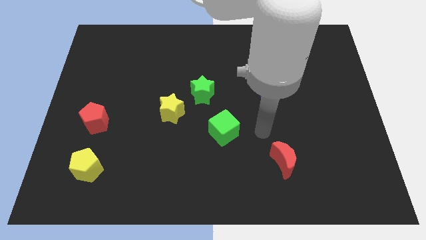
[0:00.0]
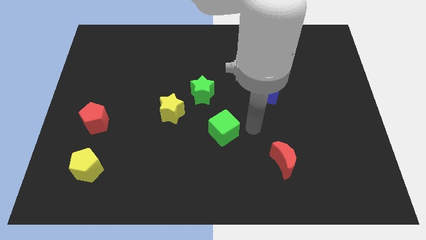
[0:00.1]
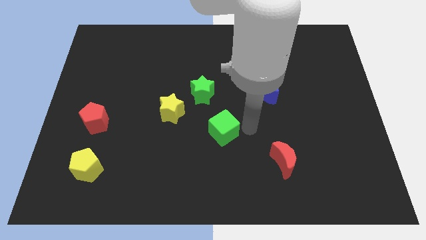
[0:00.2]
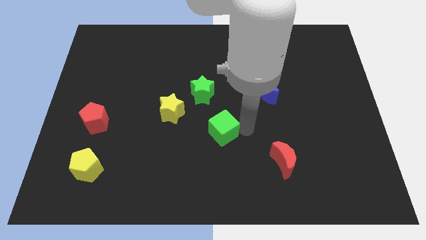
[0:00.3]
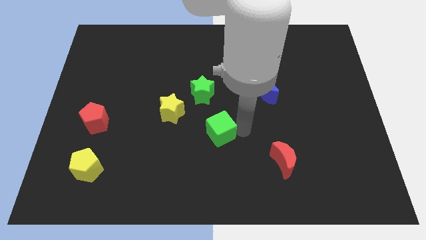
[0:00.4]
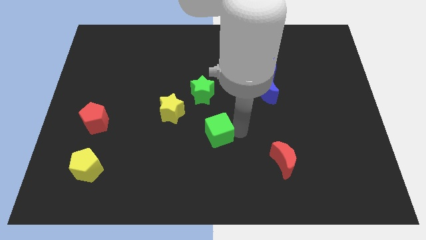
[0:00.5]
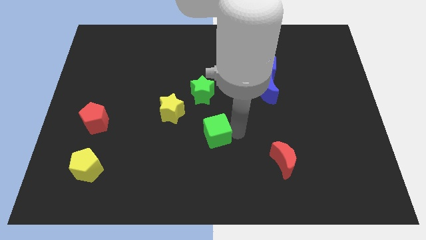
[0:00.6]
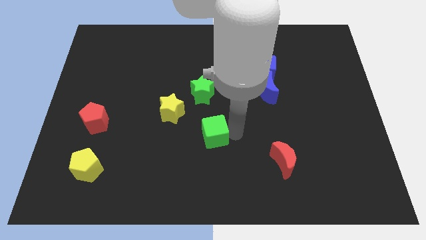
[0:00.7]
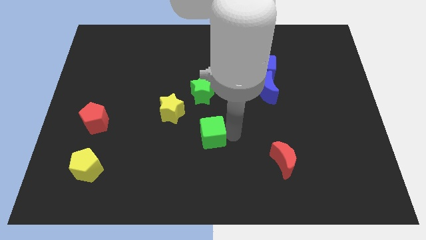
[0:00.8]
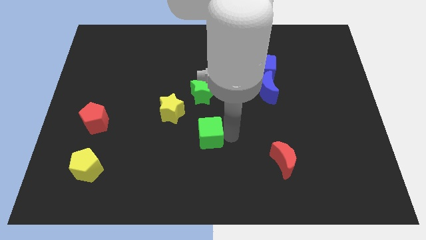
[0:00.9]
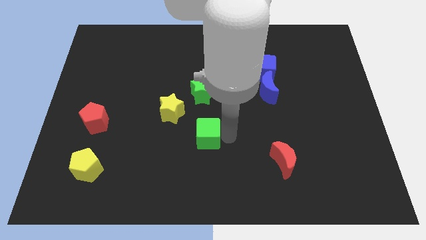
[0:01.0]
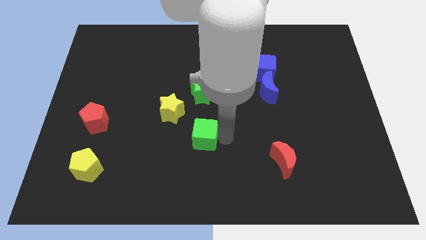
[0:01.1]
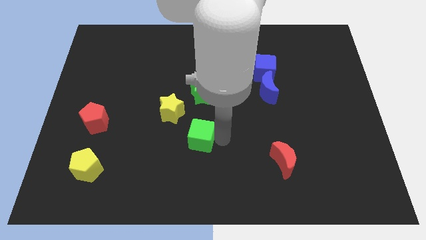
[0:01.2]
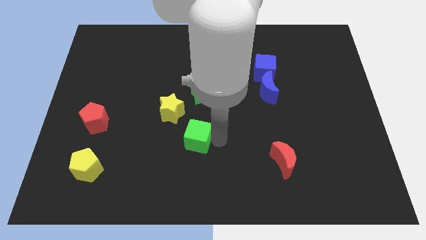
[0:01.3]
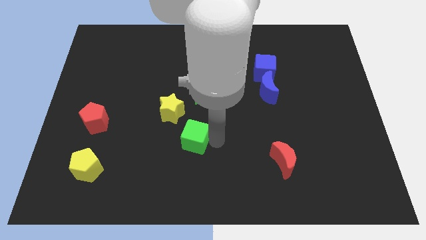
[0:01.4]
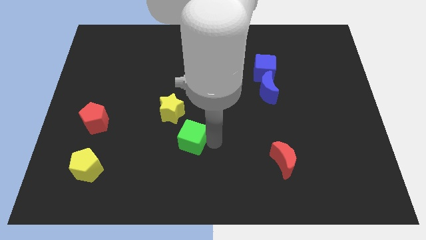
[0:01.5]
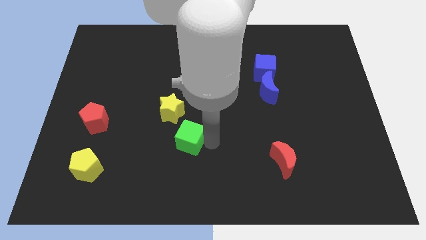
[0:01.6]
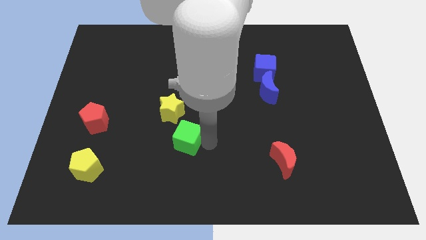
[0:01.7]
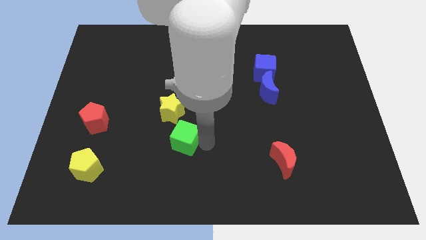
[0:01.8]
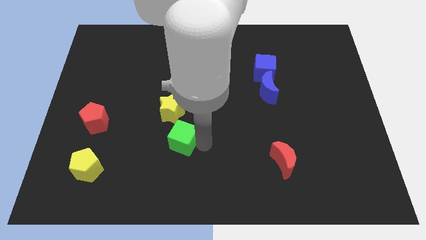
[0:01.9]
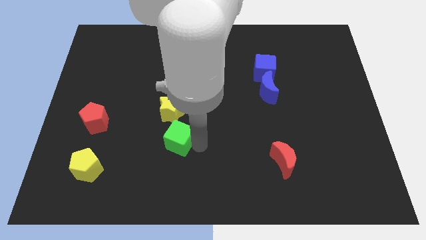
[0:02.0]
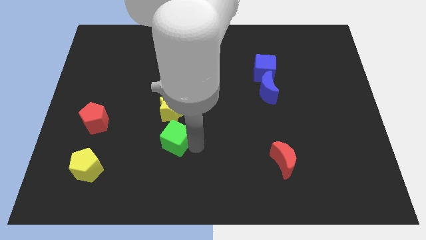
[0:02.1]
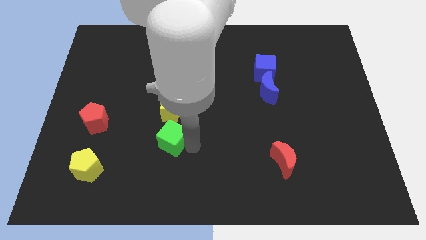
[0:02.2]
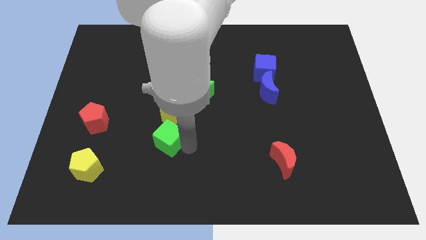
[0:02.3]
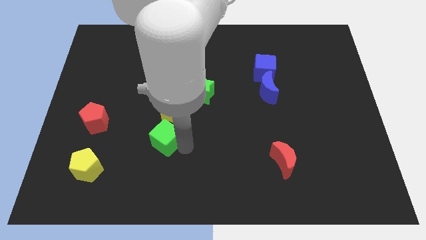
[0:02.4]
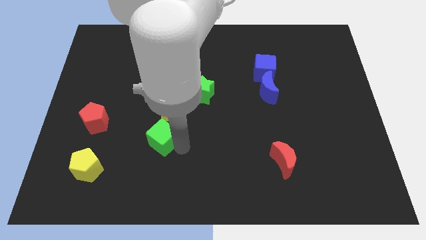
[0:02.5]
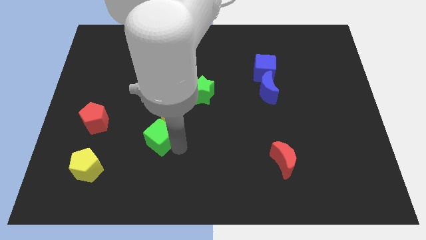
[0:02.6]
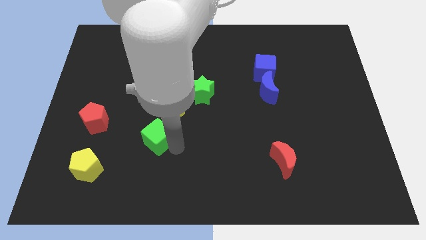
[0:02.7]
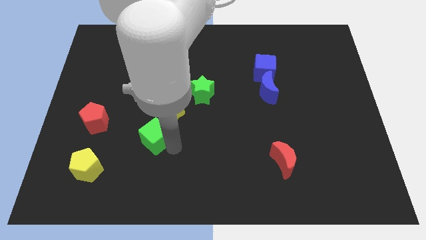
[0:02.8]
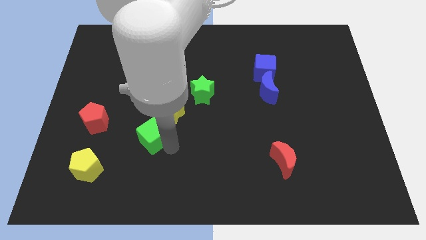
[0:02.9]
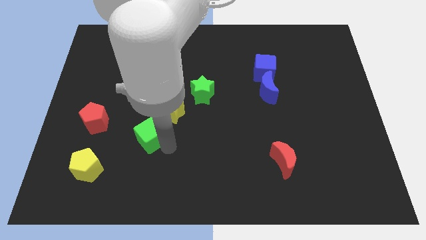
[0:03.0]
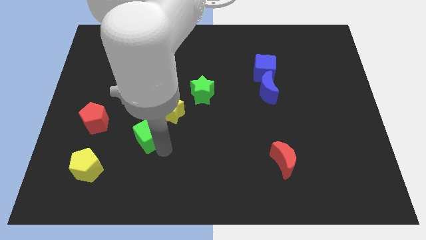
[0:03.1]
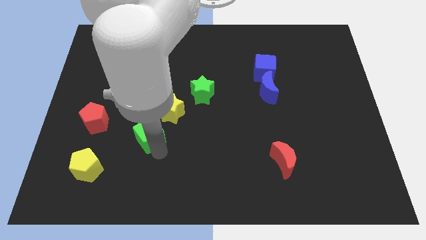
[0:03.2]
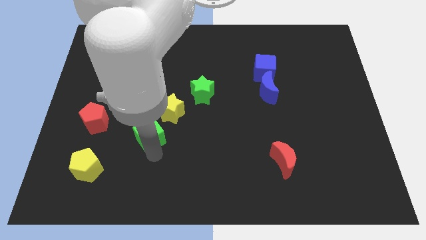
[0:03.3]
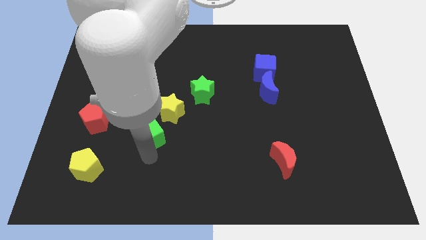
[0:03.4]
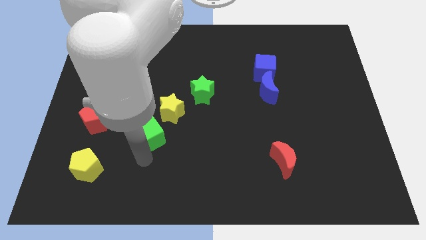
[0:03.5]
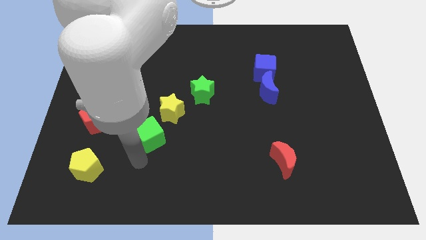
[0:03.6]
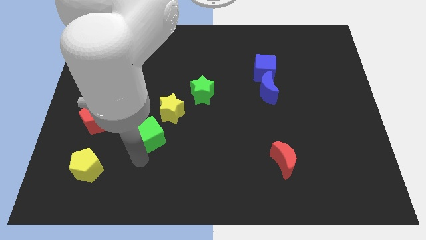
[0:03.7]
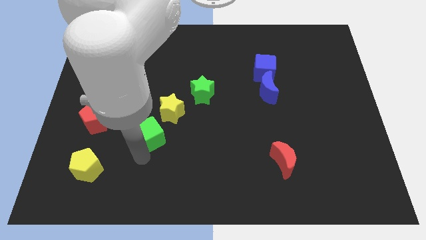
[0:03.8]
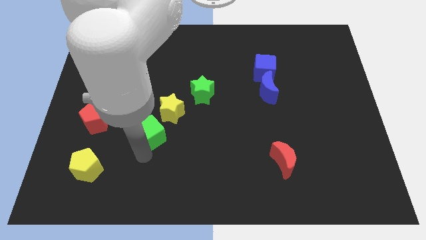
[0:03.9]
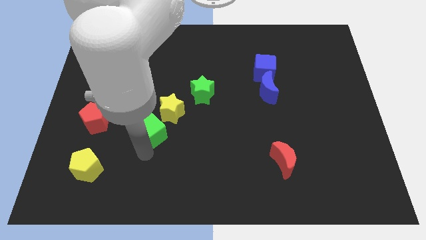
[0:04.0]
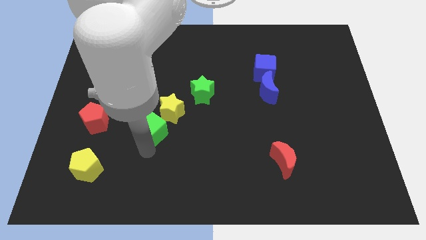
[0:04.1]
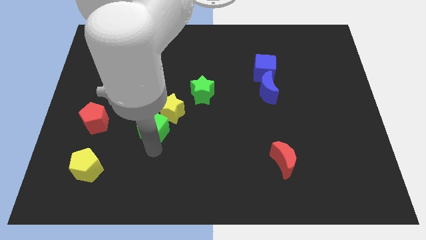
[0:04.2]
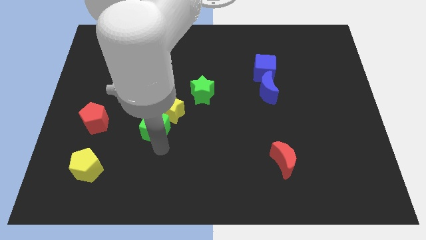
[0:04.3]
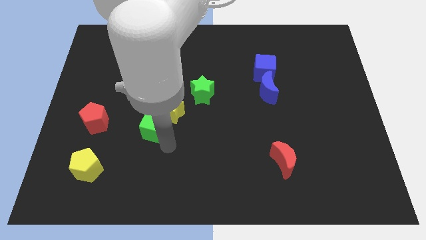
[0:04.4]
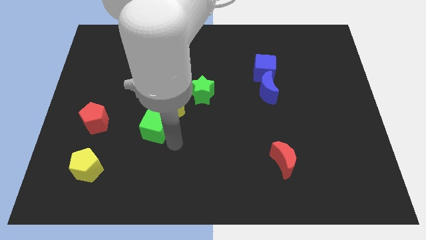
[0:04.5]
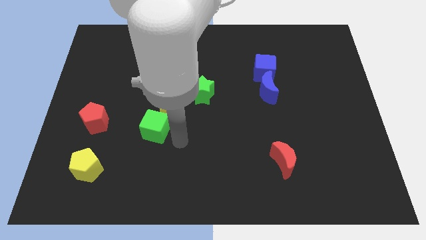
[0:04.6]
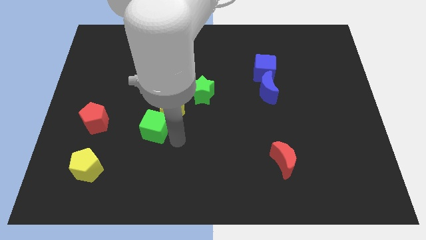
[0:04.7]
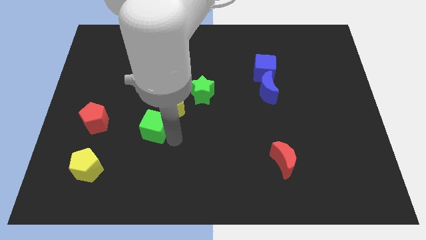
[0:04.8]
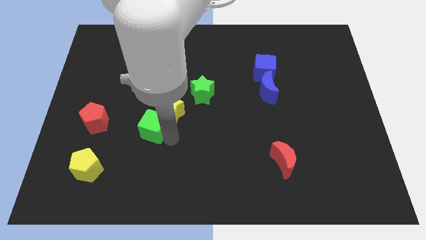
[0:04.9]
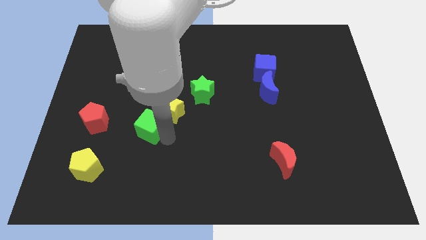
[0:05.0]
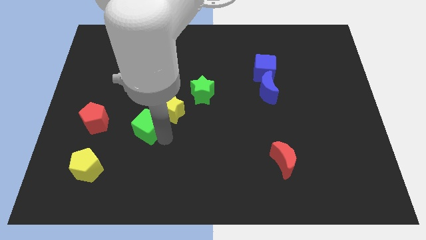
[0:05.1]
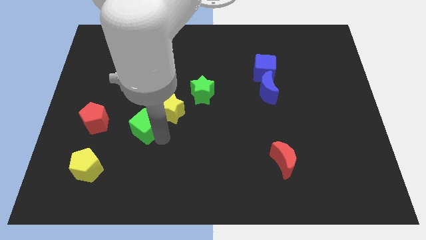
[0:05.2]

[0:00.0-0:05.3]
push the green cube to the left side of the yellow star

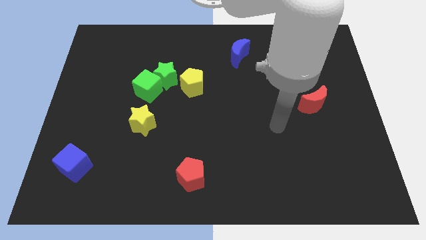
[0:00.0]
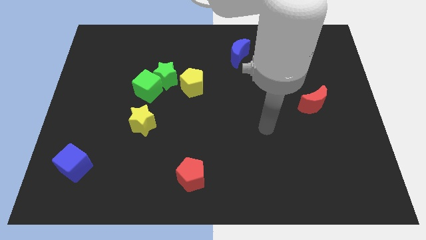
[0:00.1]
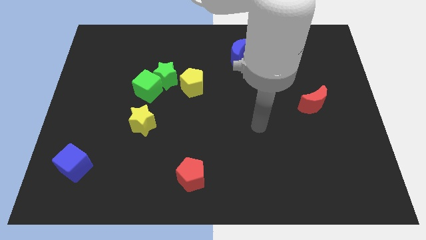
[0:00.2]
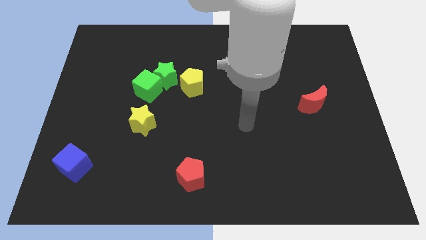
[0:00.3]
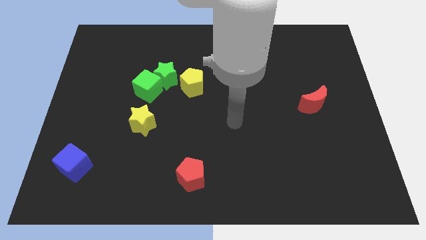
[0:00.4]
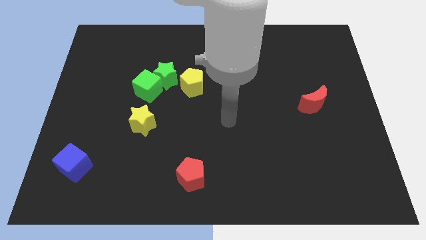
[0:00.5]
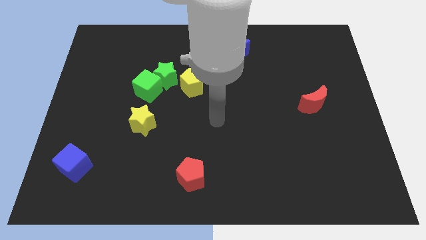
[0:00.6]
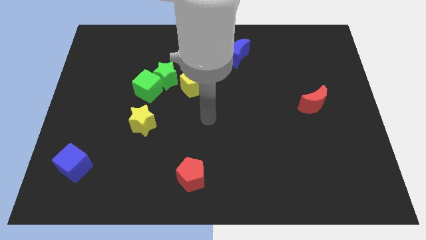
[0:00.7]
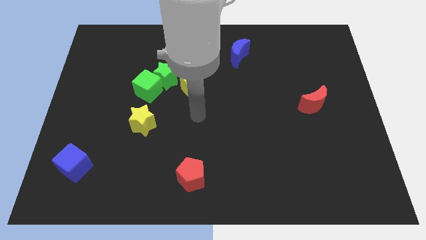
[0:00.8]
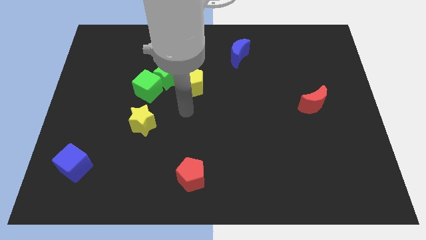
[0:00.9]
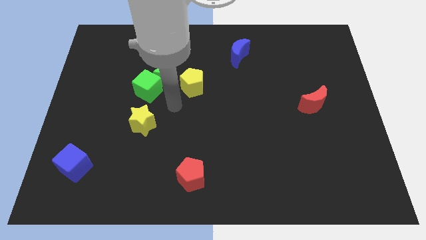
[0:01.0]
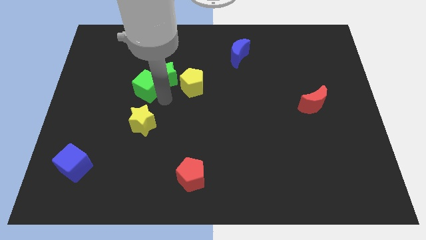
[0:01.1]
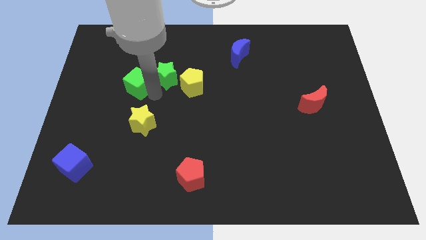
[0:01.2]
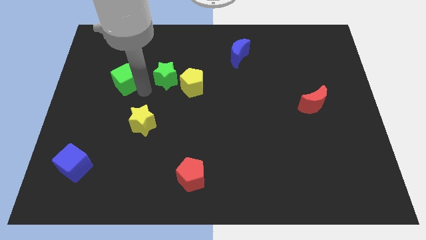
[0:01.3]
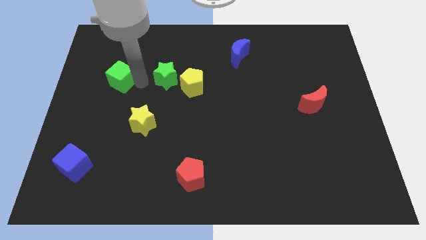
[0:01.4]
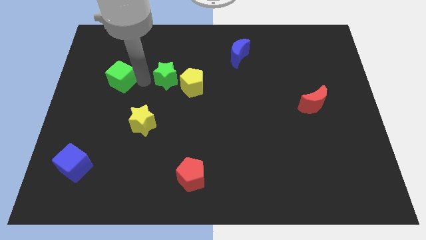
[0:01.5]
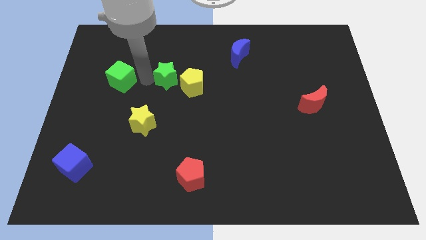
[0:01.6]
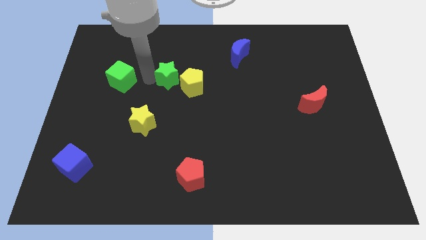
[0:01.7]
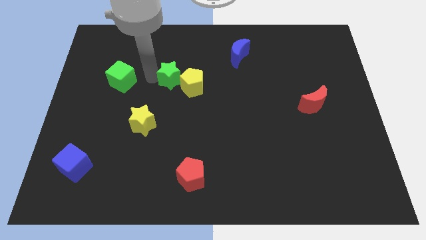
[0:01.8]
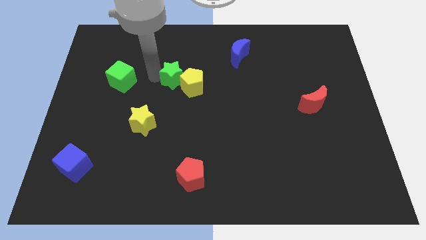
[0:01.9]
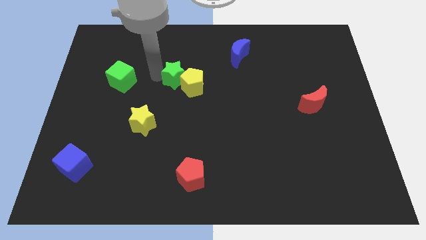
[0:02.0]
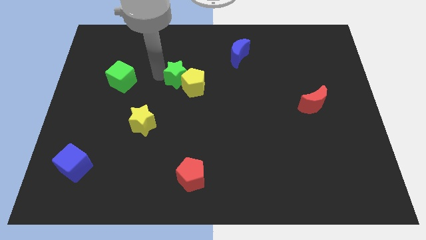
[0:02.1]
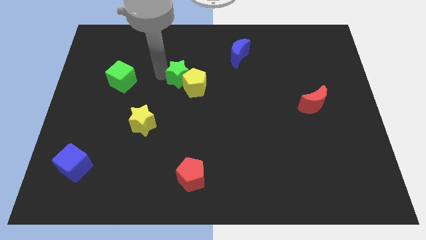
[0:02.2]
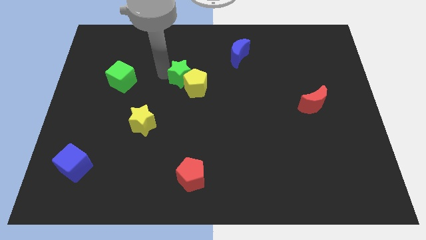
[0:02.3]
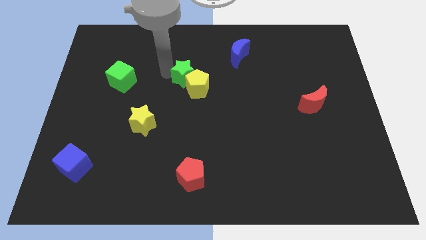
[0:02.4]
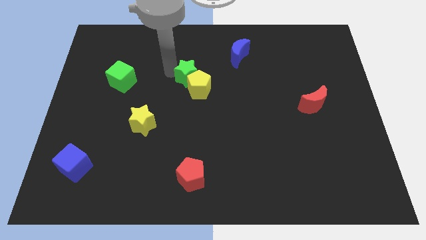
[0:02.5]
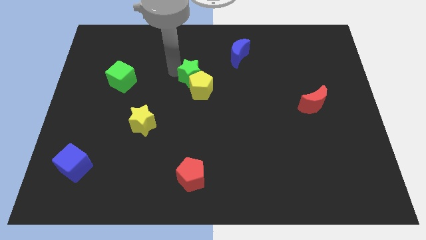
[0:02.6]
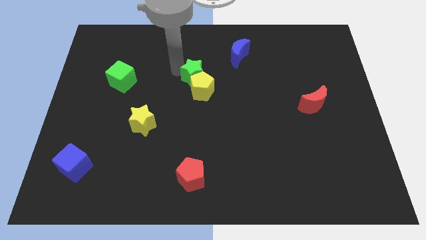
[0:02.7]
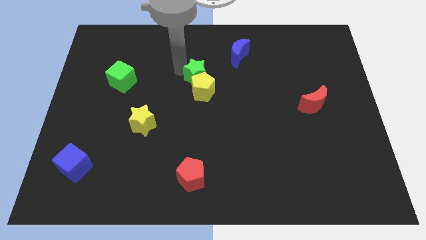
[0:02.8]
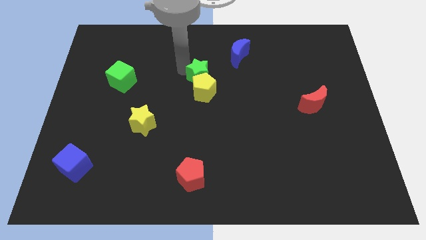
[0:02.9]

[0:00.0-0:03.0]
push the green star to the bottom left of the blue moon
